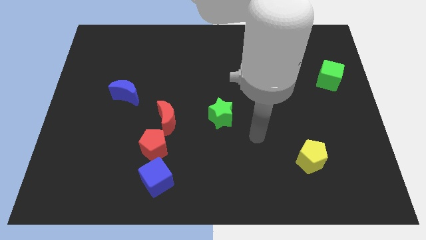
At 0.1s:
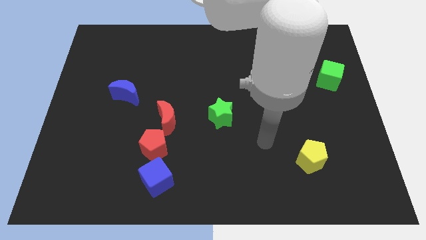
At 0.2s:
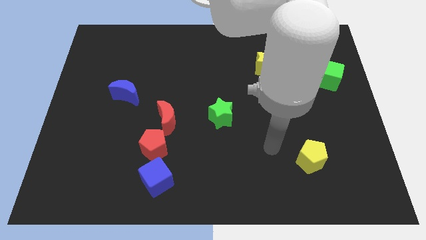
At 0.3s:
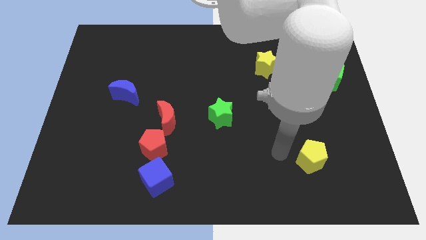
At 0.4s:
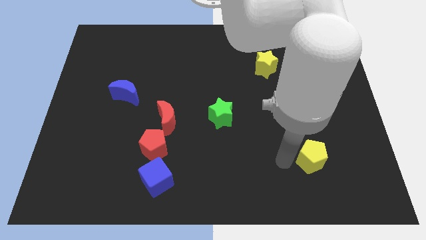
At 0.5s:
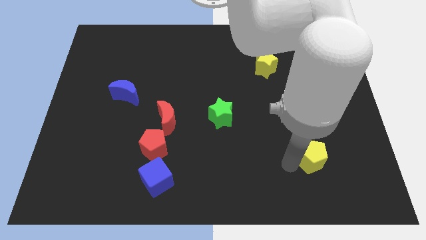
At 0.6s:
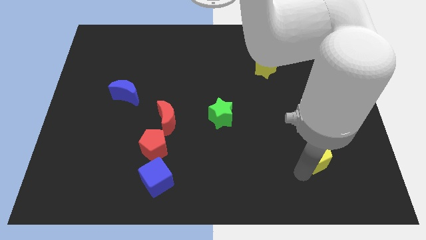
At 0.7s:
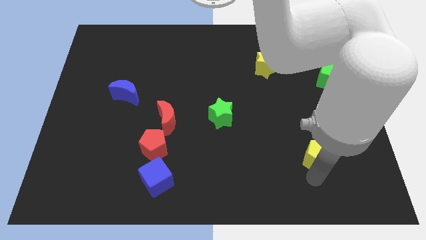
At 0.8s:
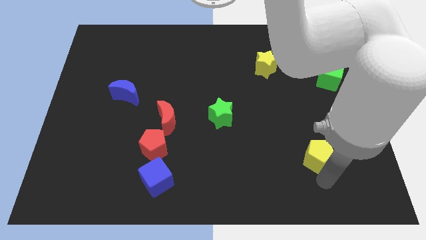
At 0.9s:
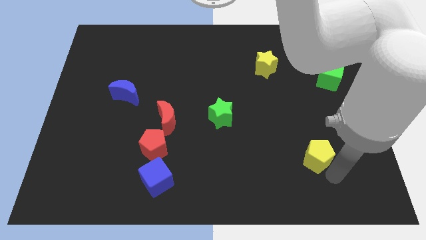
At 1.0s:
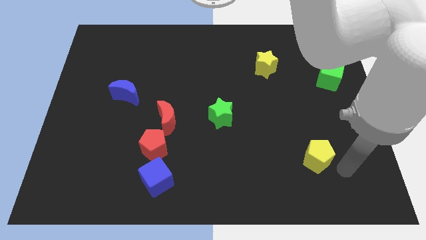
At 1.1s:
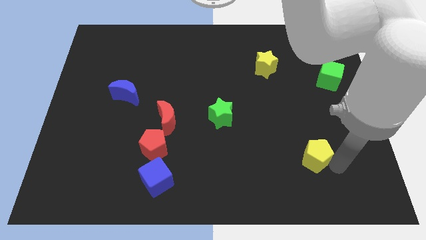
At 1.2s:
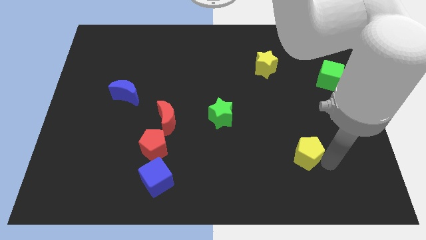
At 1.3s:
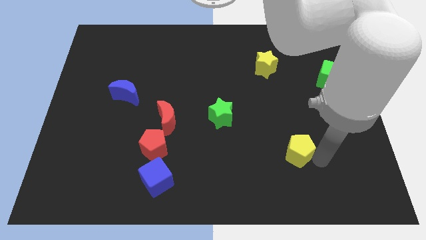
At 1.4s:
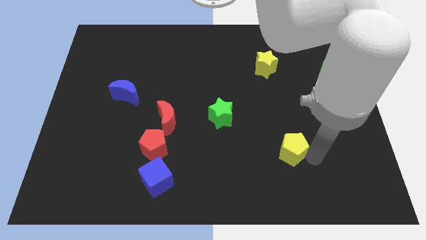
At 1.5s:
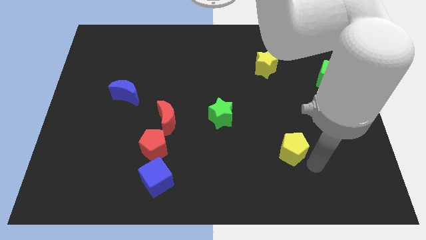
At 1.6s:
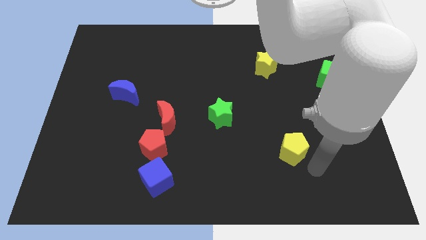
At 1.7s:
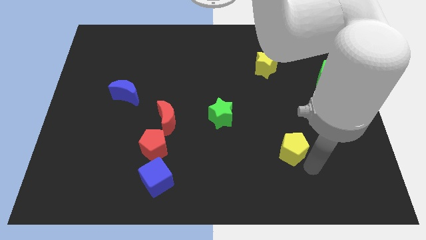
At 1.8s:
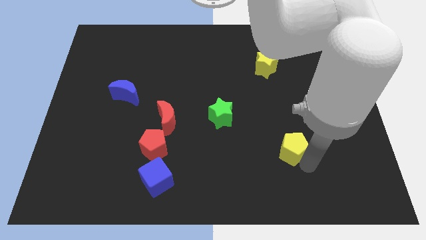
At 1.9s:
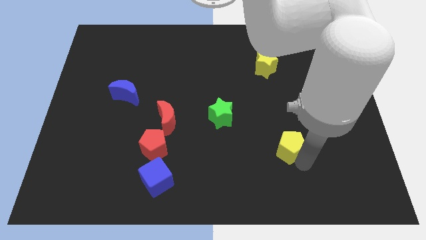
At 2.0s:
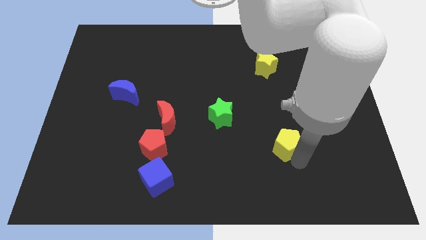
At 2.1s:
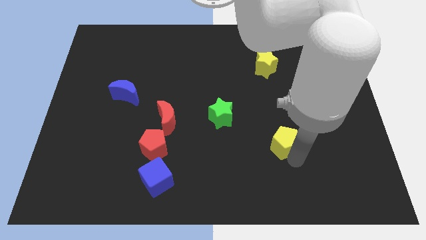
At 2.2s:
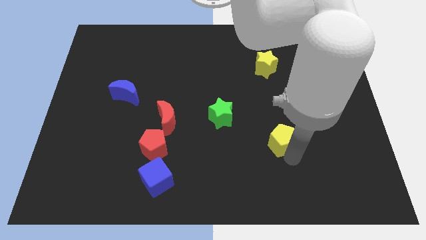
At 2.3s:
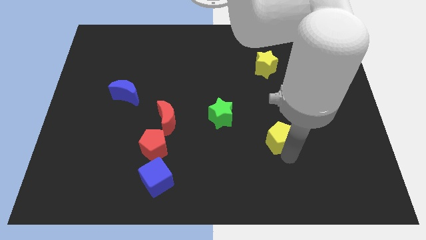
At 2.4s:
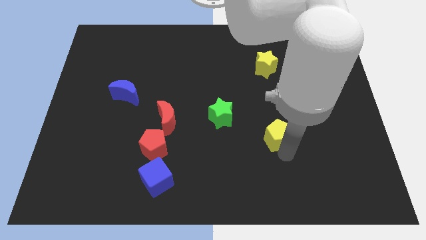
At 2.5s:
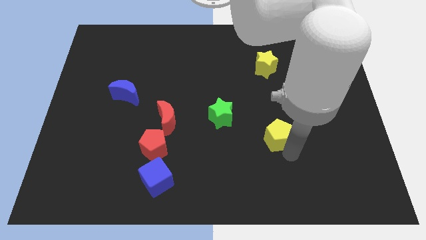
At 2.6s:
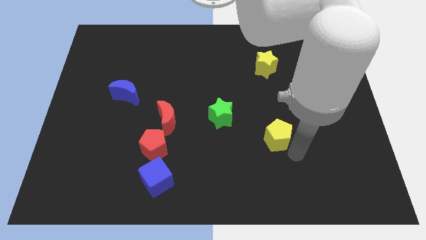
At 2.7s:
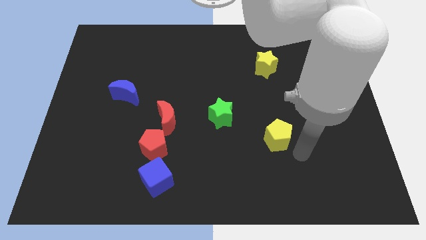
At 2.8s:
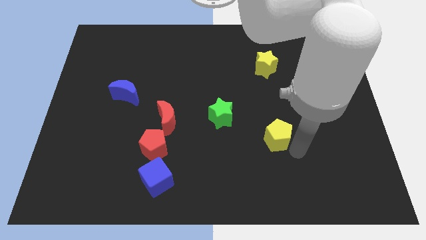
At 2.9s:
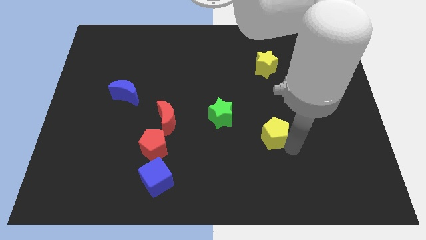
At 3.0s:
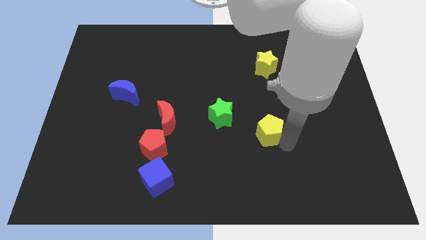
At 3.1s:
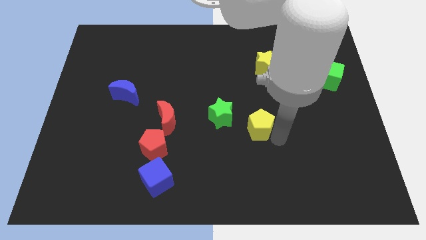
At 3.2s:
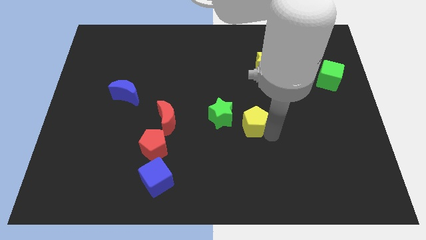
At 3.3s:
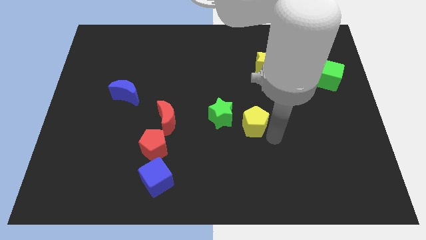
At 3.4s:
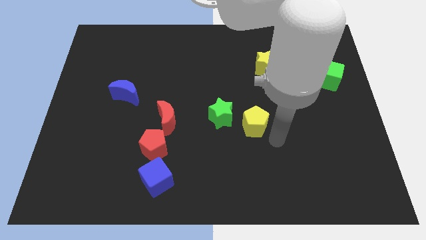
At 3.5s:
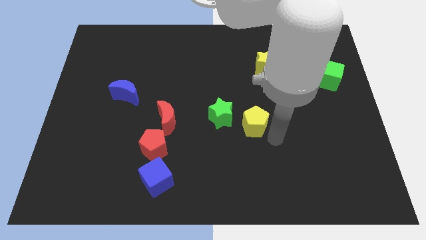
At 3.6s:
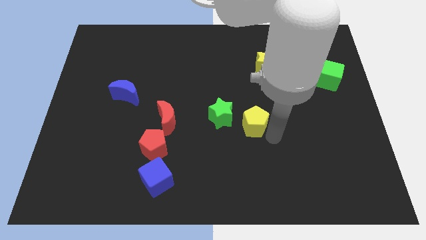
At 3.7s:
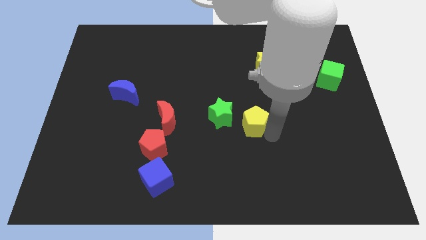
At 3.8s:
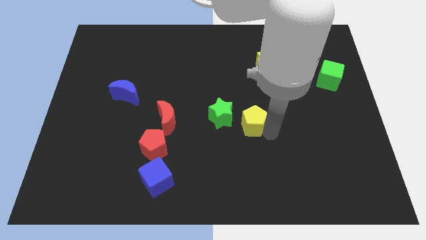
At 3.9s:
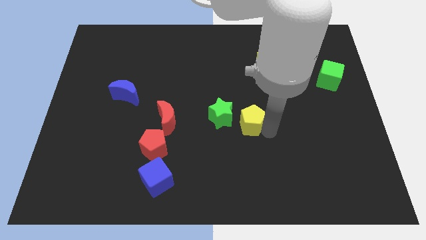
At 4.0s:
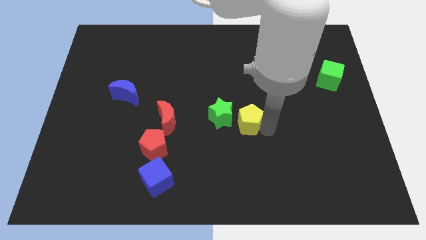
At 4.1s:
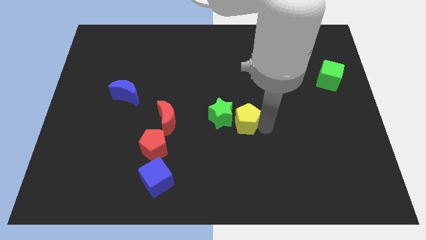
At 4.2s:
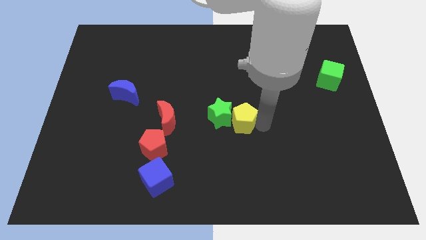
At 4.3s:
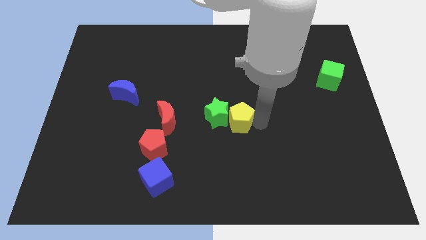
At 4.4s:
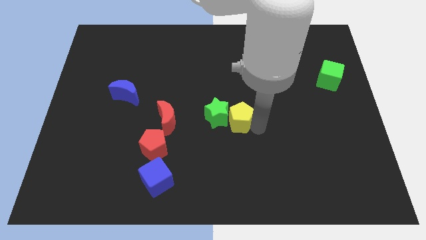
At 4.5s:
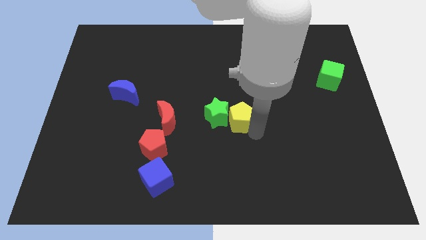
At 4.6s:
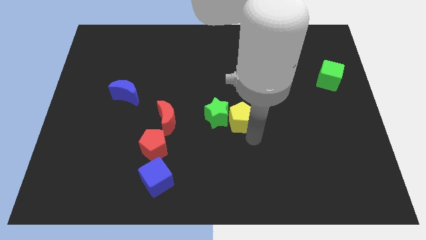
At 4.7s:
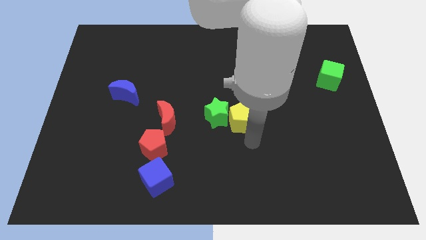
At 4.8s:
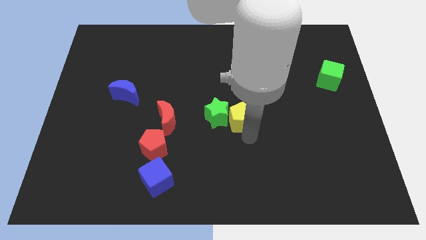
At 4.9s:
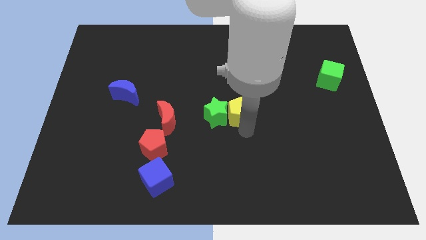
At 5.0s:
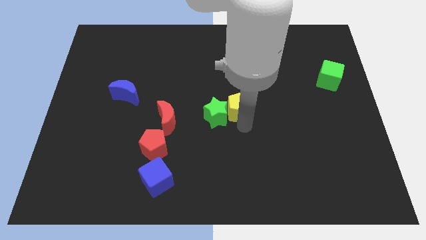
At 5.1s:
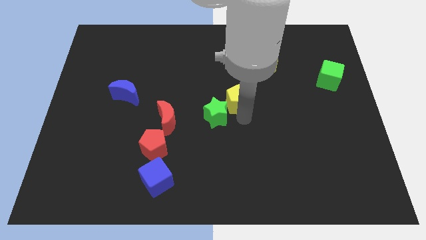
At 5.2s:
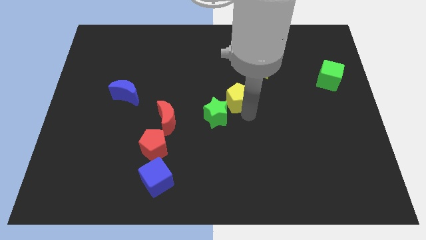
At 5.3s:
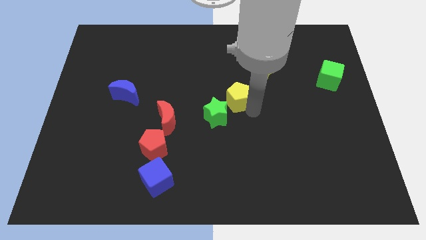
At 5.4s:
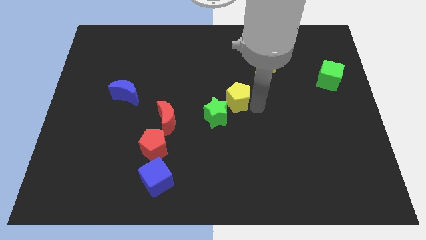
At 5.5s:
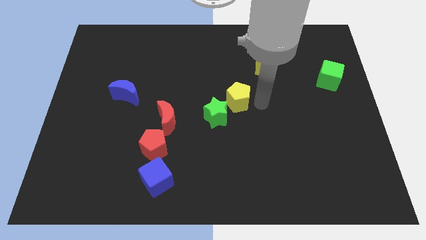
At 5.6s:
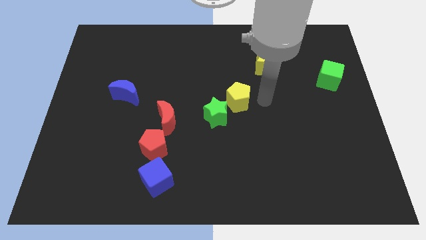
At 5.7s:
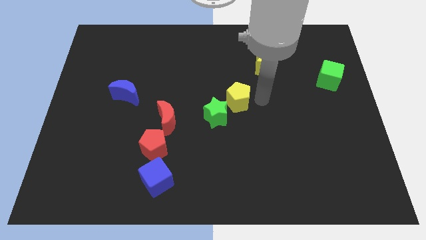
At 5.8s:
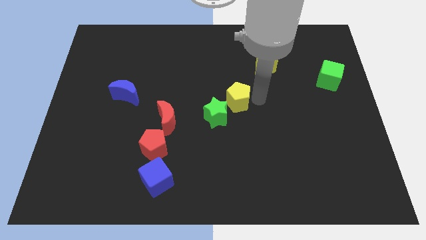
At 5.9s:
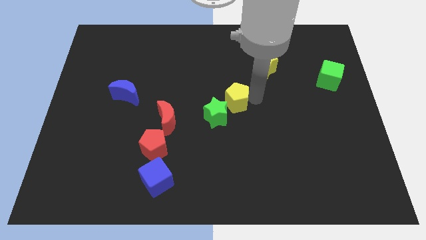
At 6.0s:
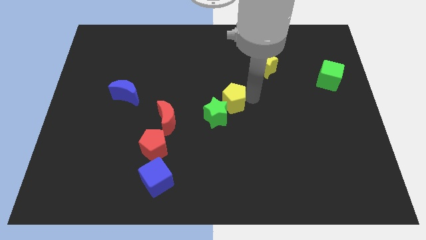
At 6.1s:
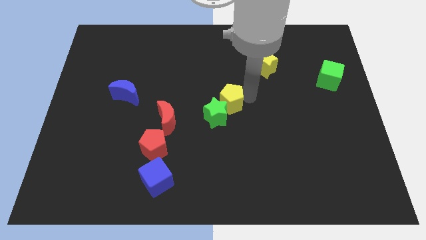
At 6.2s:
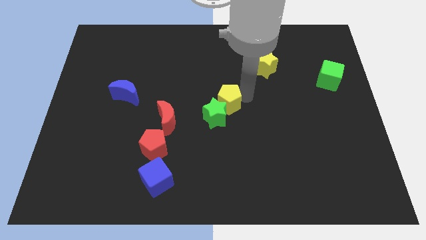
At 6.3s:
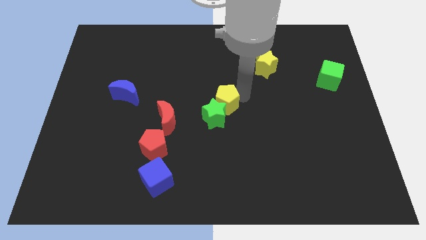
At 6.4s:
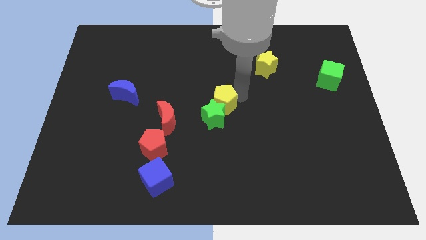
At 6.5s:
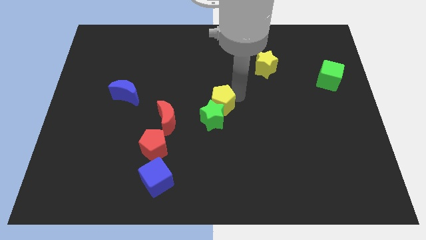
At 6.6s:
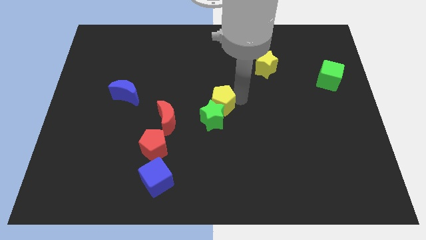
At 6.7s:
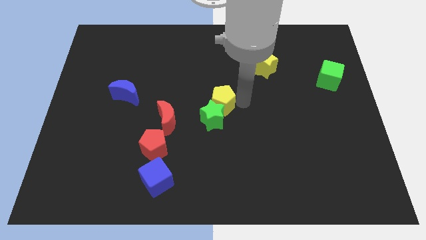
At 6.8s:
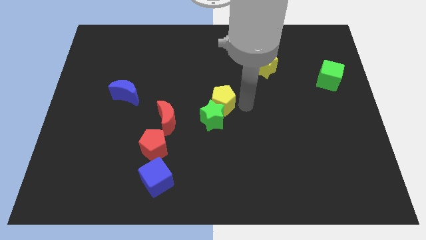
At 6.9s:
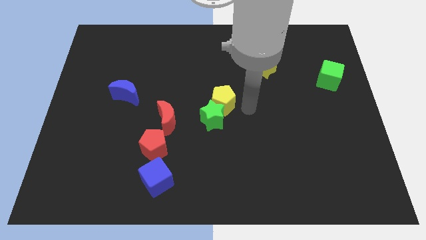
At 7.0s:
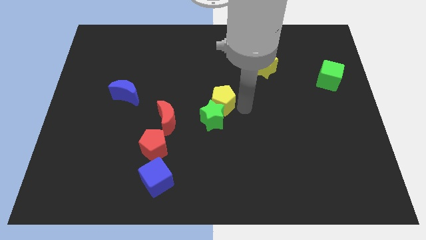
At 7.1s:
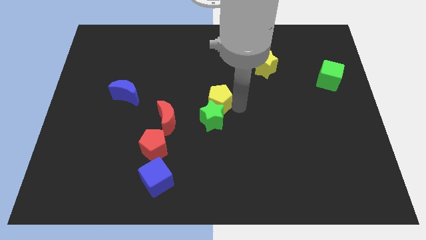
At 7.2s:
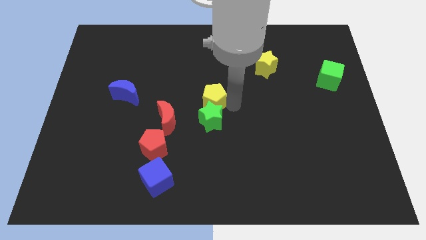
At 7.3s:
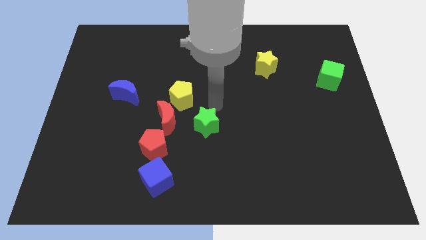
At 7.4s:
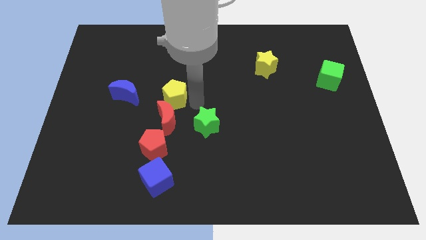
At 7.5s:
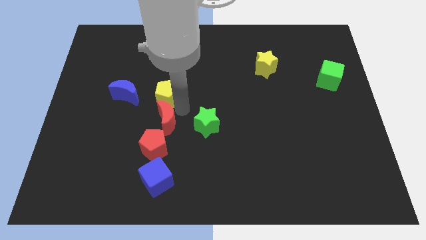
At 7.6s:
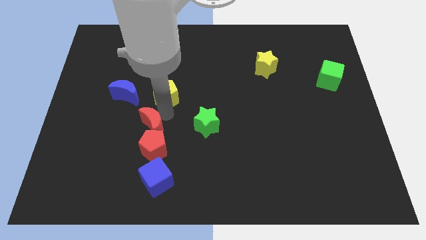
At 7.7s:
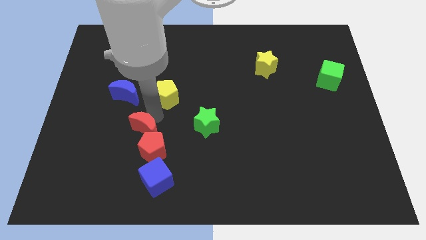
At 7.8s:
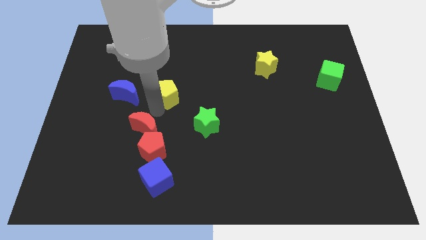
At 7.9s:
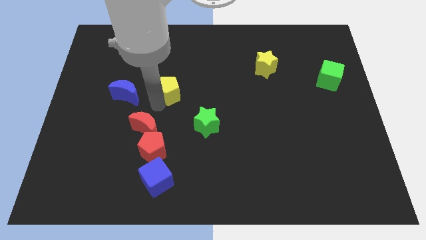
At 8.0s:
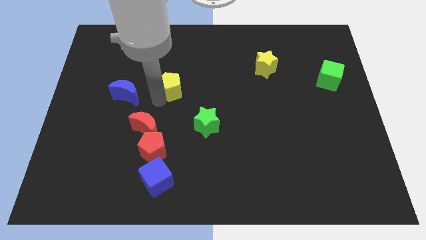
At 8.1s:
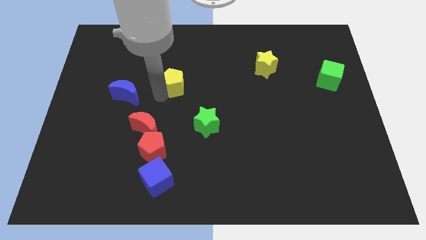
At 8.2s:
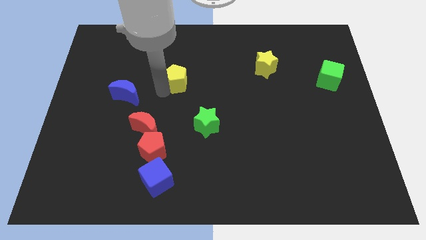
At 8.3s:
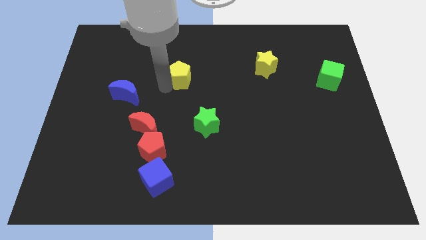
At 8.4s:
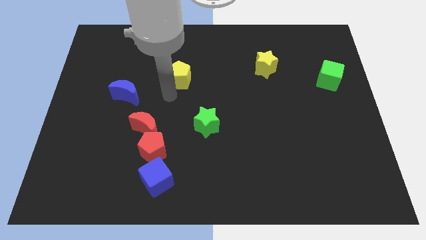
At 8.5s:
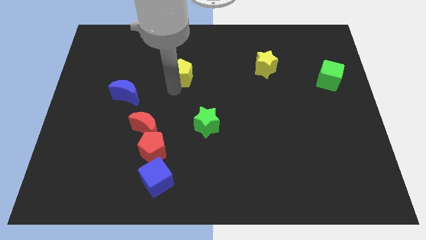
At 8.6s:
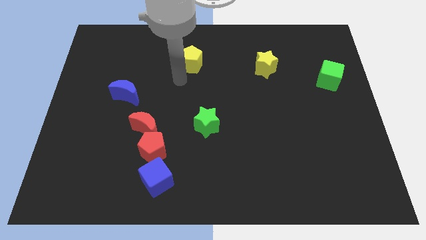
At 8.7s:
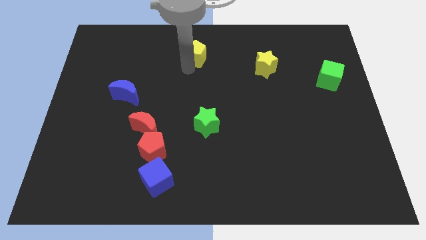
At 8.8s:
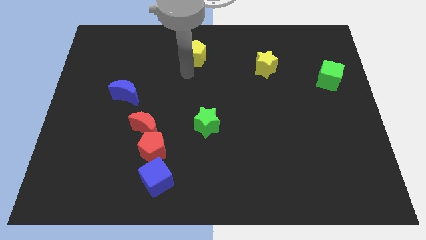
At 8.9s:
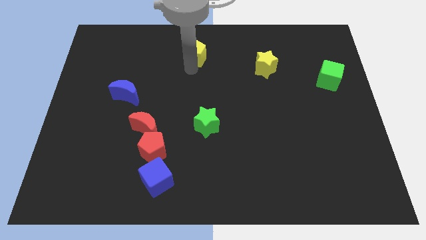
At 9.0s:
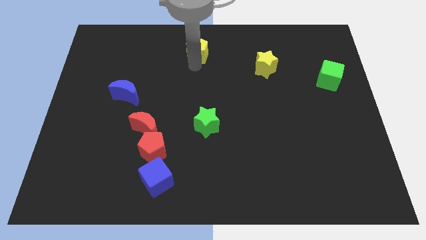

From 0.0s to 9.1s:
move the yellow pentagon to the top
